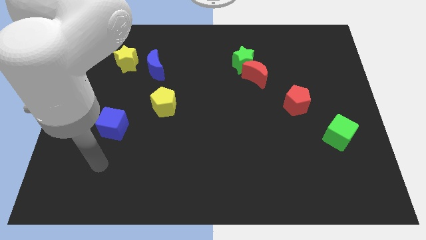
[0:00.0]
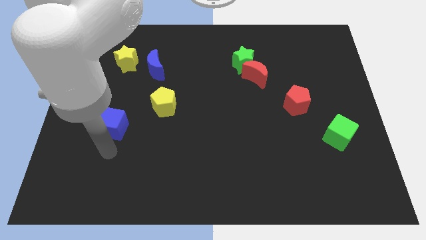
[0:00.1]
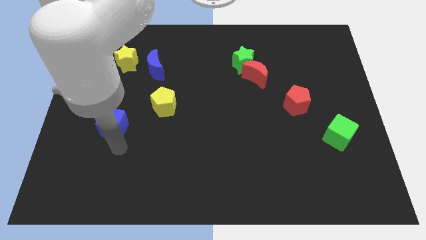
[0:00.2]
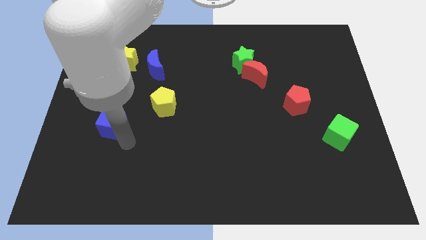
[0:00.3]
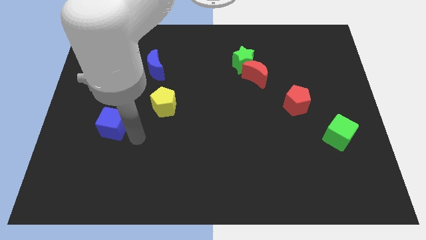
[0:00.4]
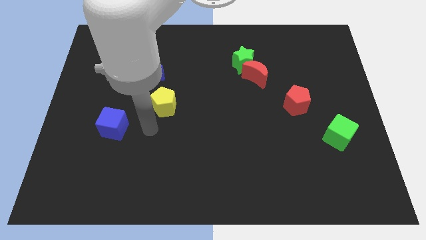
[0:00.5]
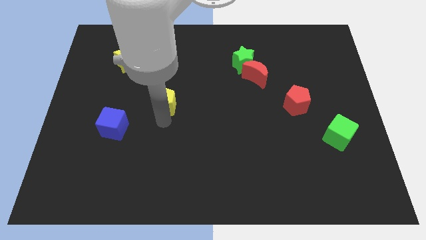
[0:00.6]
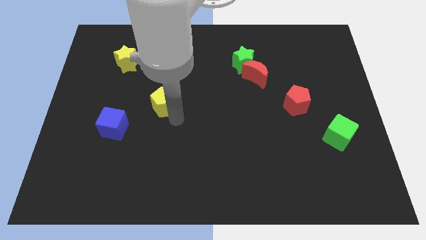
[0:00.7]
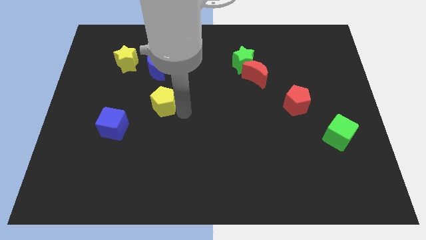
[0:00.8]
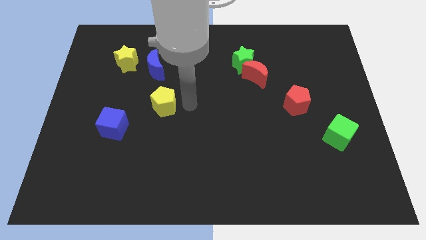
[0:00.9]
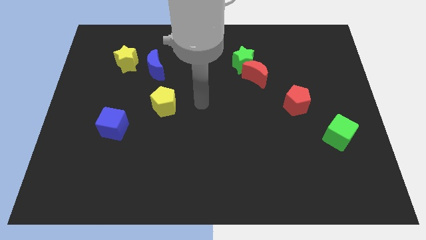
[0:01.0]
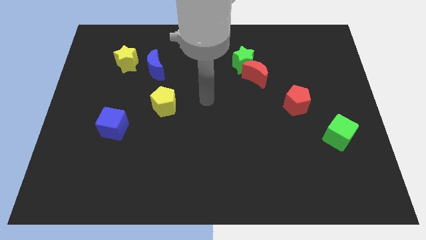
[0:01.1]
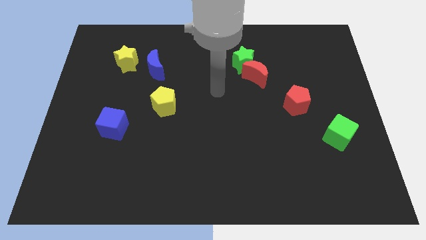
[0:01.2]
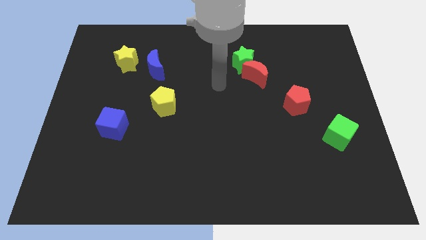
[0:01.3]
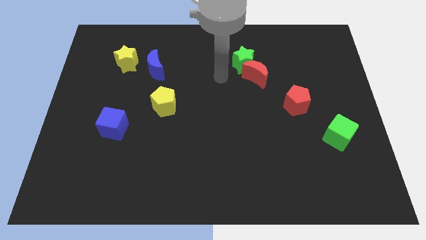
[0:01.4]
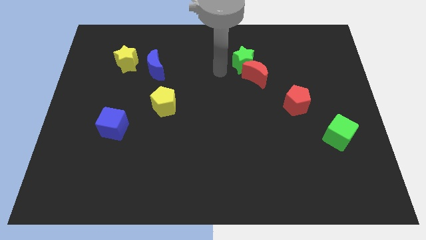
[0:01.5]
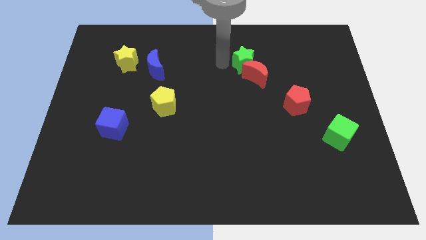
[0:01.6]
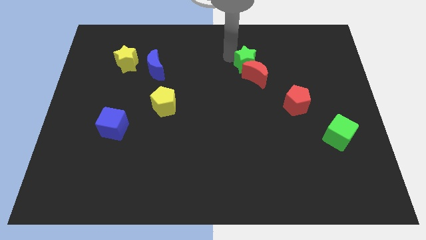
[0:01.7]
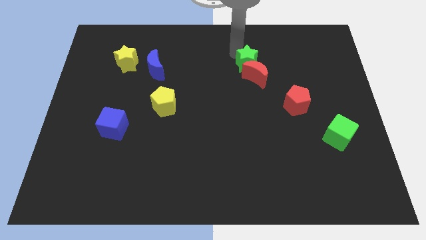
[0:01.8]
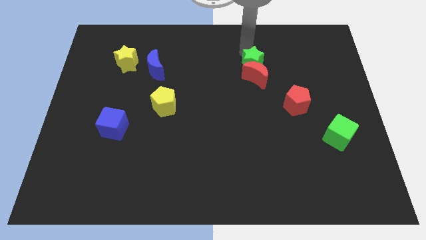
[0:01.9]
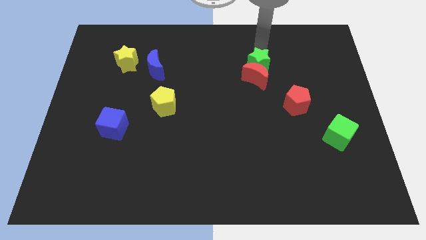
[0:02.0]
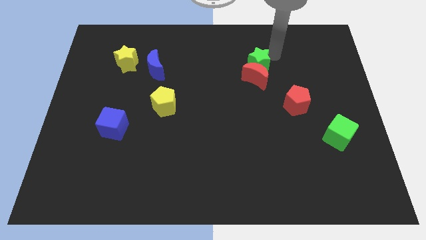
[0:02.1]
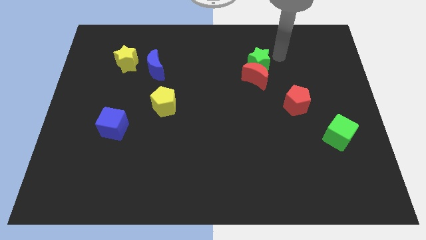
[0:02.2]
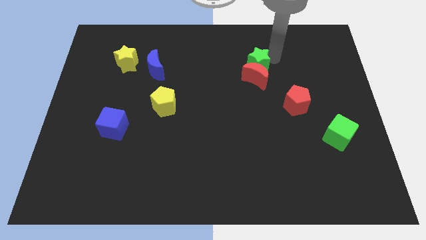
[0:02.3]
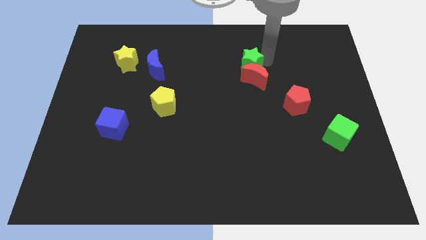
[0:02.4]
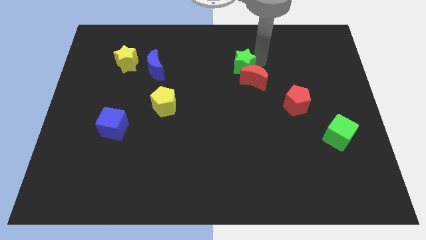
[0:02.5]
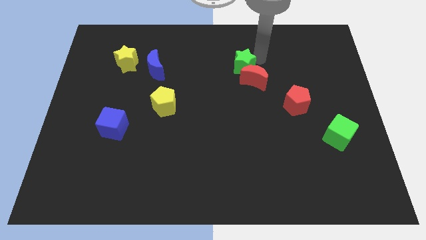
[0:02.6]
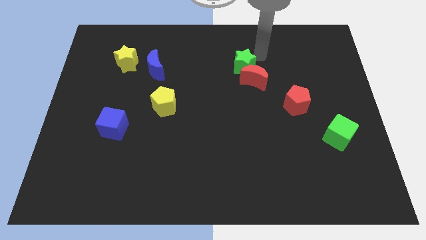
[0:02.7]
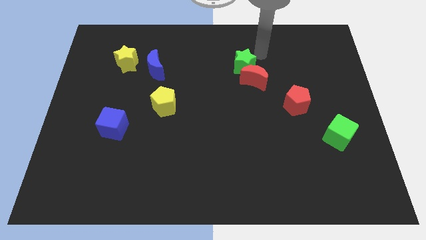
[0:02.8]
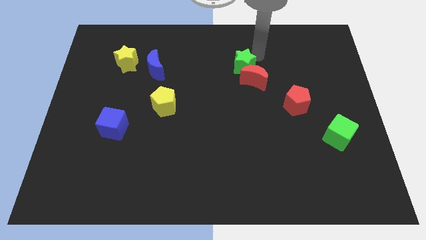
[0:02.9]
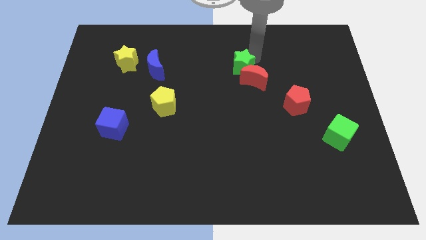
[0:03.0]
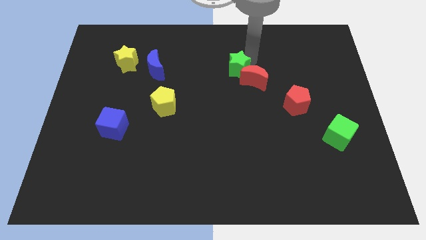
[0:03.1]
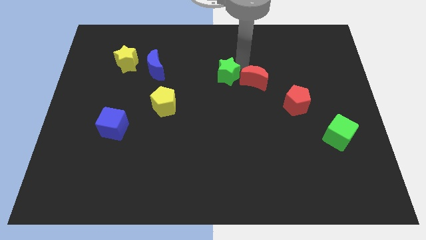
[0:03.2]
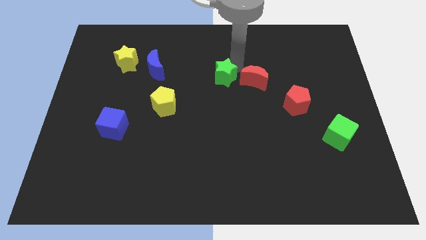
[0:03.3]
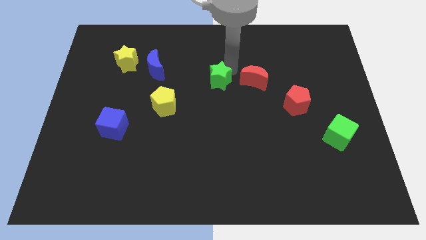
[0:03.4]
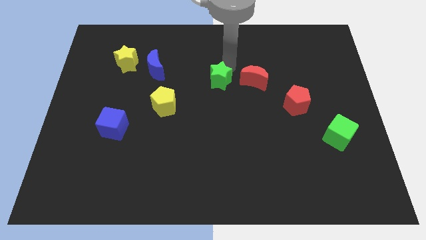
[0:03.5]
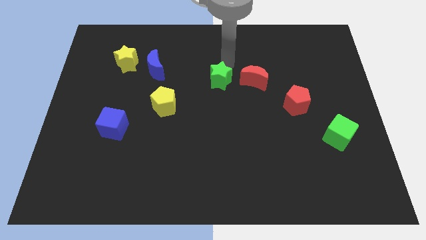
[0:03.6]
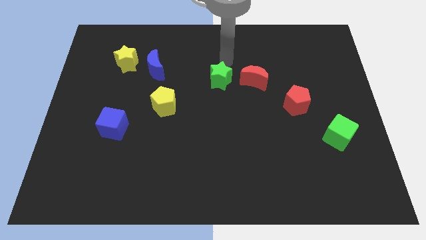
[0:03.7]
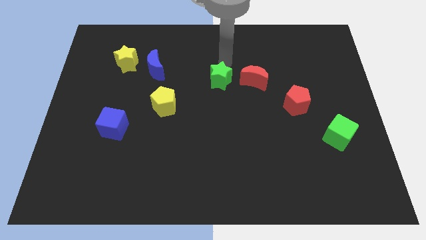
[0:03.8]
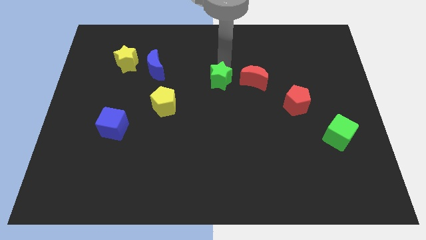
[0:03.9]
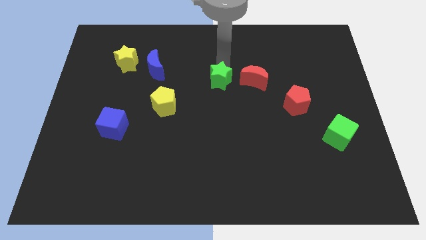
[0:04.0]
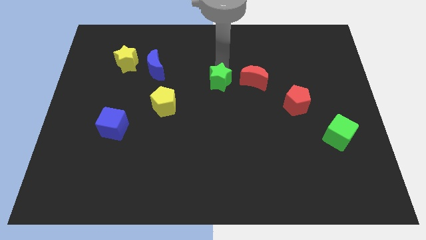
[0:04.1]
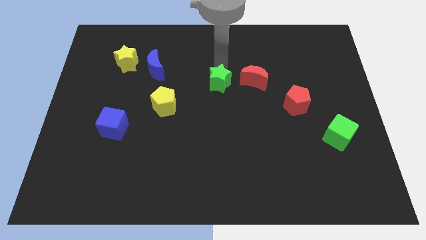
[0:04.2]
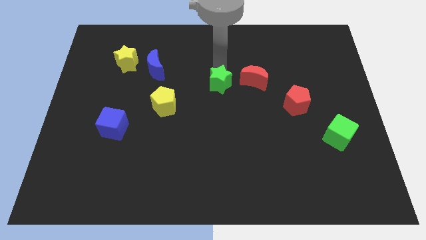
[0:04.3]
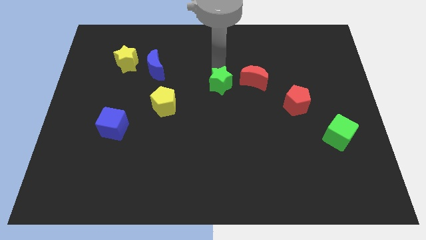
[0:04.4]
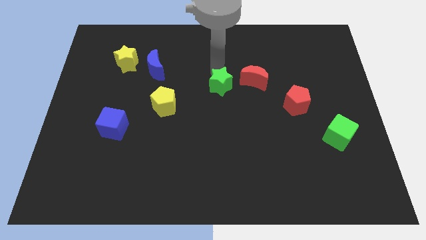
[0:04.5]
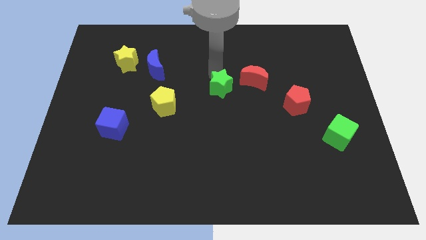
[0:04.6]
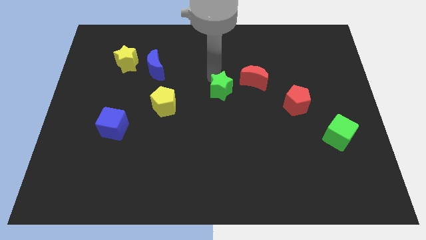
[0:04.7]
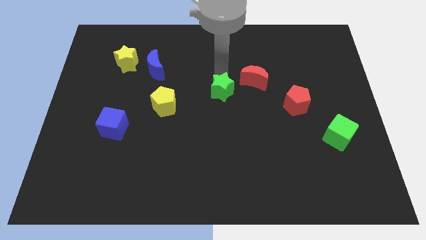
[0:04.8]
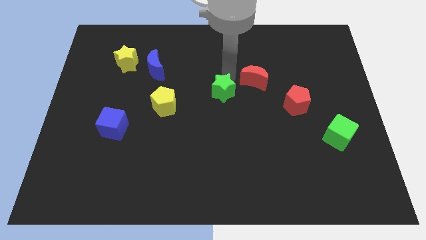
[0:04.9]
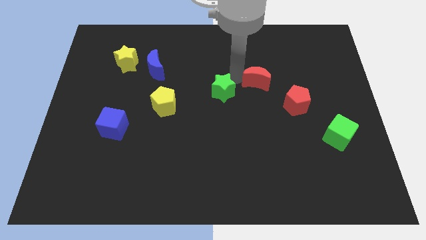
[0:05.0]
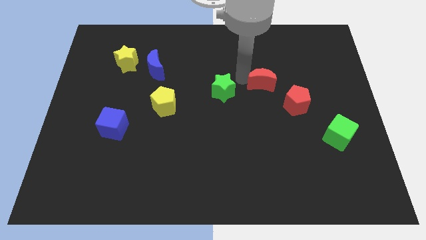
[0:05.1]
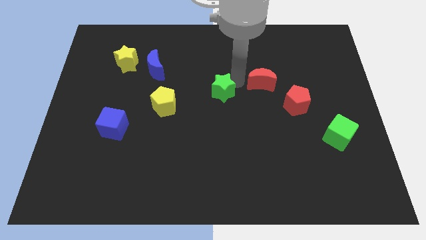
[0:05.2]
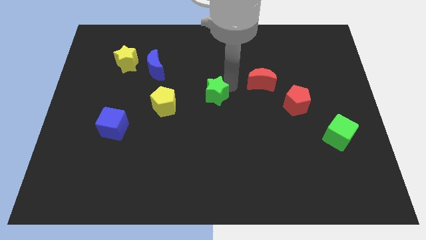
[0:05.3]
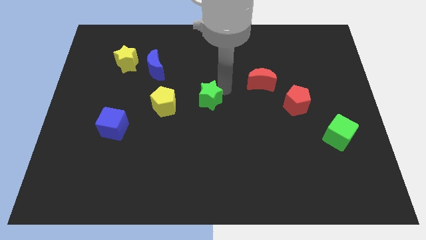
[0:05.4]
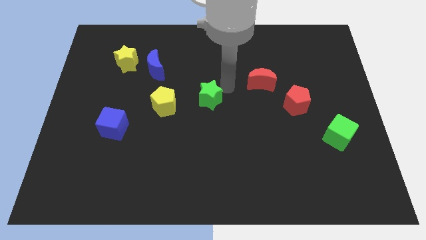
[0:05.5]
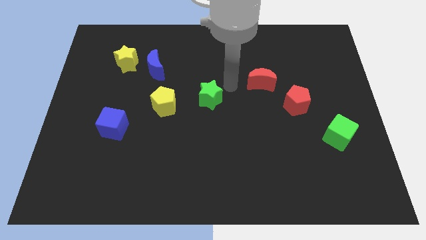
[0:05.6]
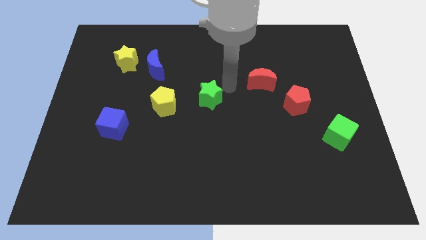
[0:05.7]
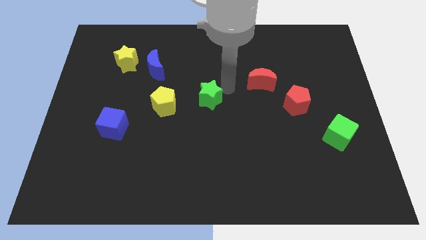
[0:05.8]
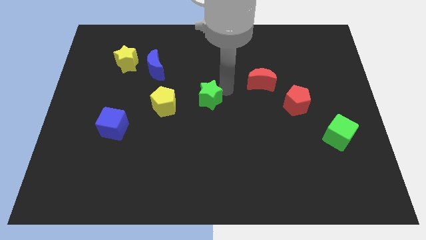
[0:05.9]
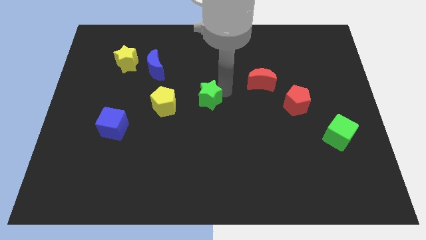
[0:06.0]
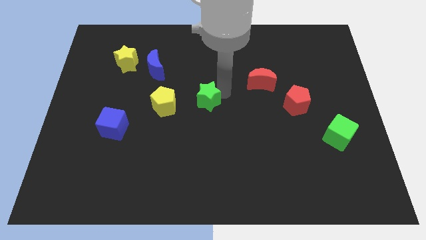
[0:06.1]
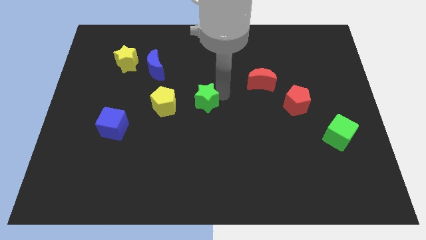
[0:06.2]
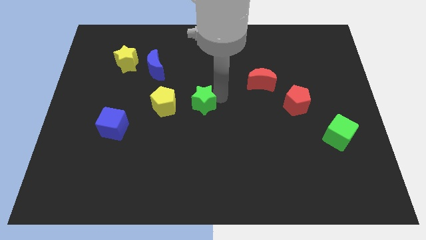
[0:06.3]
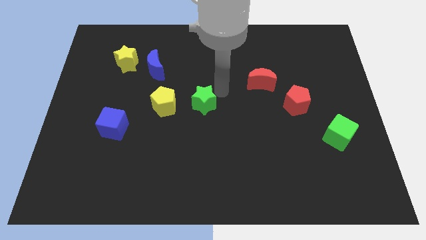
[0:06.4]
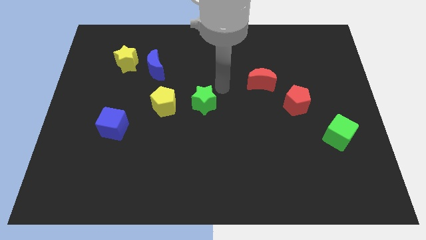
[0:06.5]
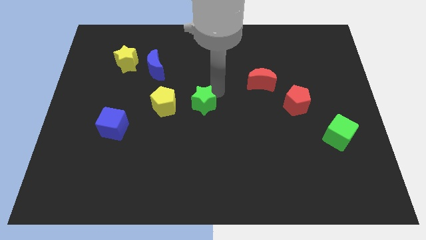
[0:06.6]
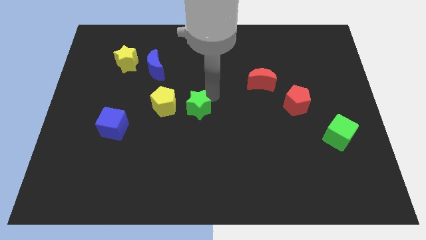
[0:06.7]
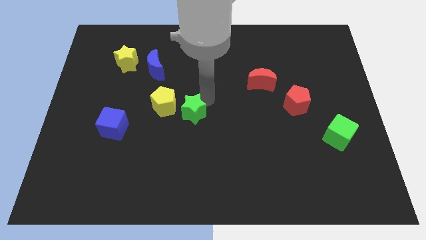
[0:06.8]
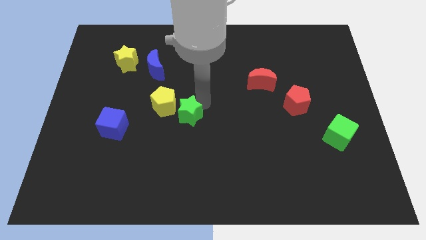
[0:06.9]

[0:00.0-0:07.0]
push the green star down and to the left diagonally

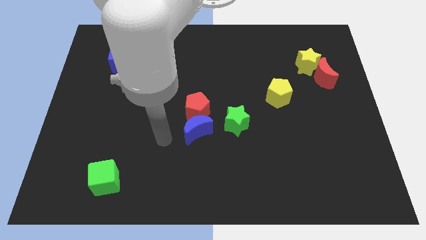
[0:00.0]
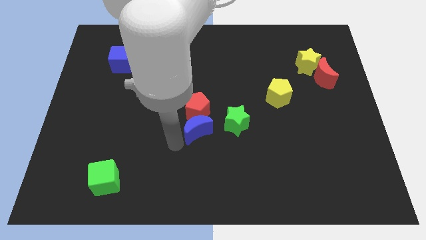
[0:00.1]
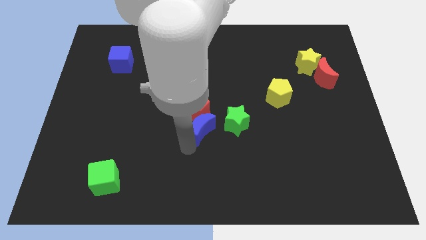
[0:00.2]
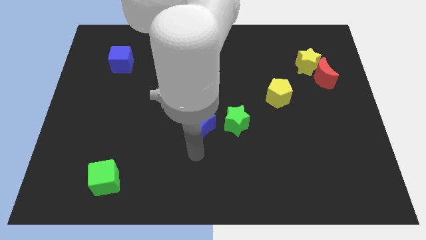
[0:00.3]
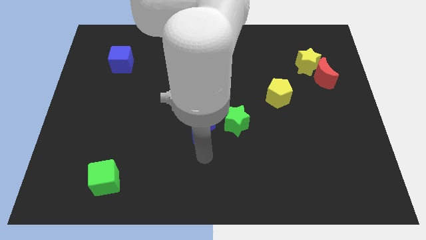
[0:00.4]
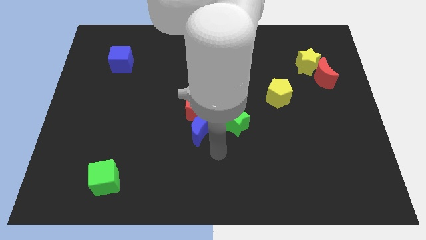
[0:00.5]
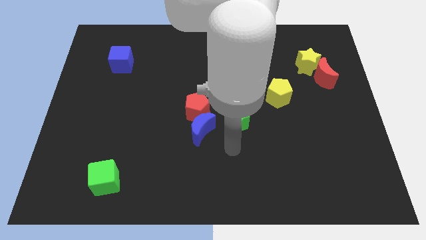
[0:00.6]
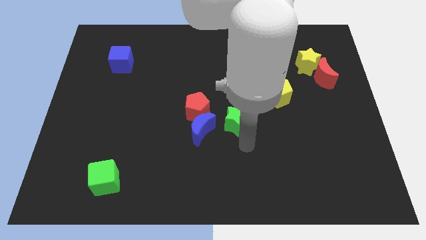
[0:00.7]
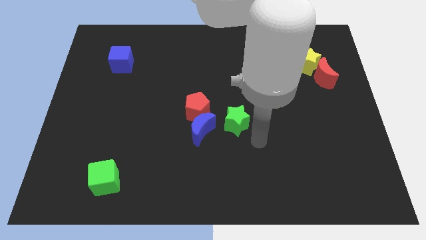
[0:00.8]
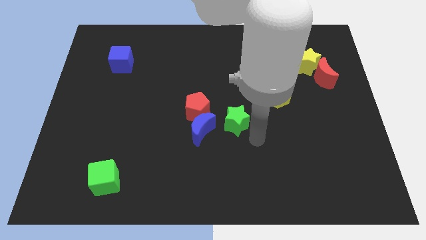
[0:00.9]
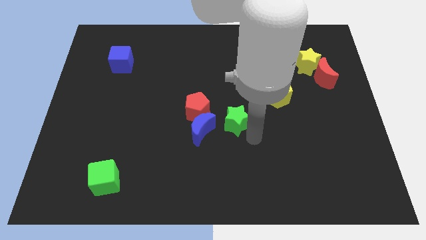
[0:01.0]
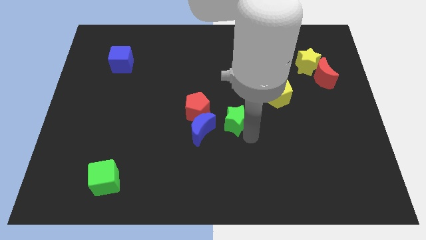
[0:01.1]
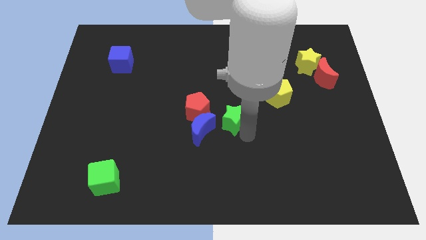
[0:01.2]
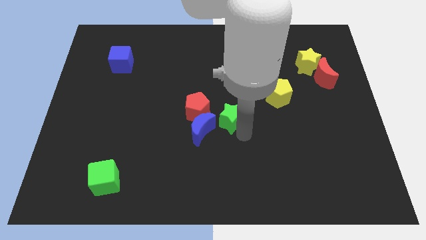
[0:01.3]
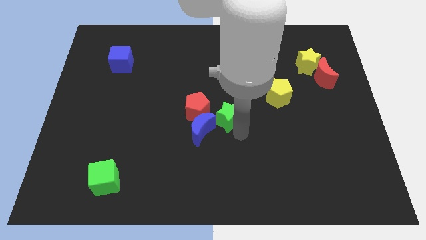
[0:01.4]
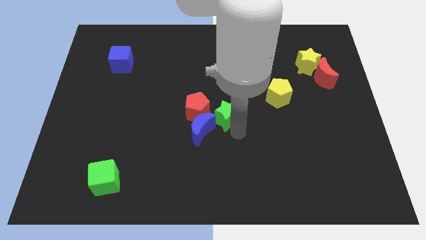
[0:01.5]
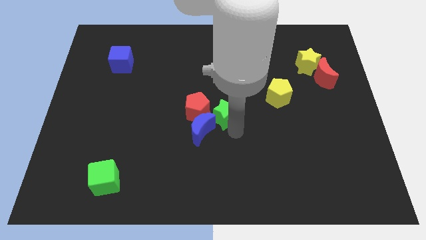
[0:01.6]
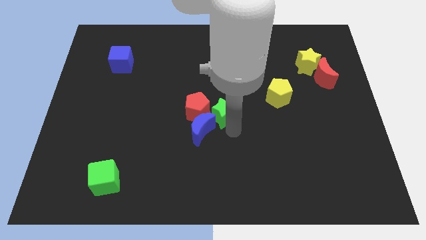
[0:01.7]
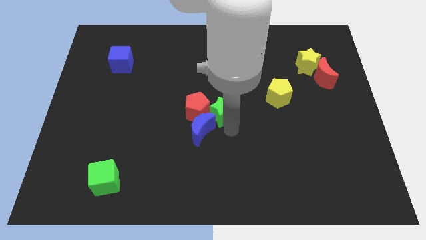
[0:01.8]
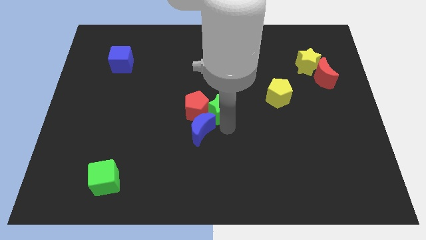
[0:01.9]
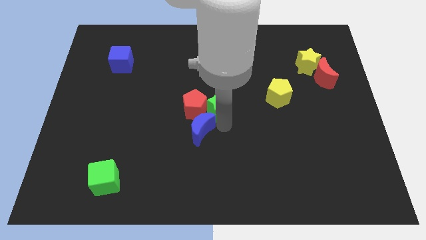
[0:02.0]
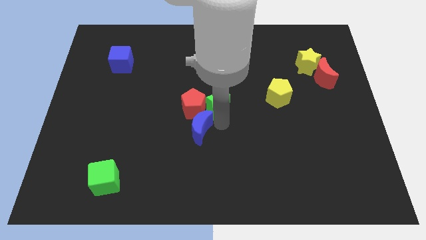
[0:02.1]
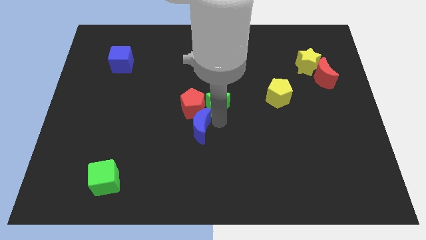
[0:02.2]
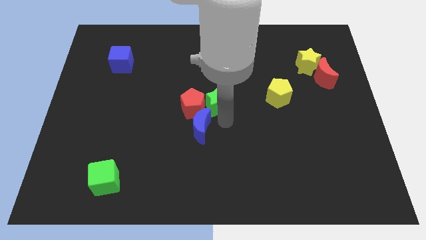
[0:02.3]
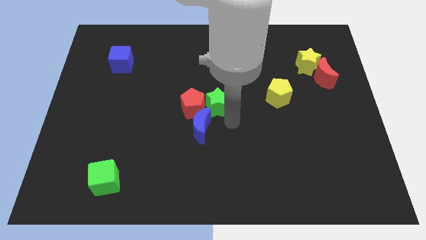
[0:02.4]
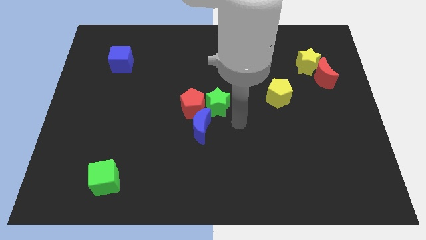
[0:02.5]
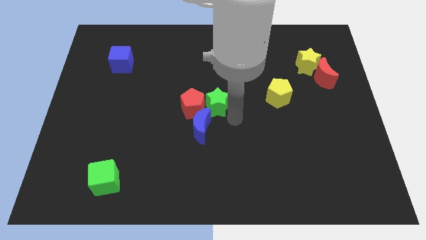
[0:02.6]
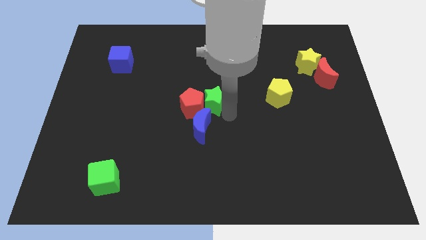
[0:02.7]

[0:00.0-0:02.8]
slightly push the green star diagonally upwards and to the left
